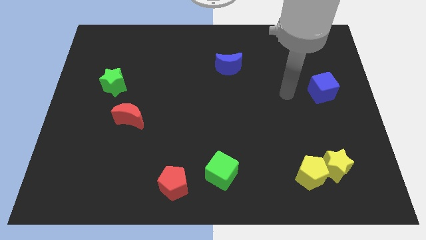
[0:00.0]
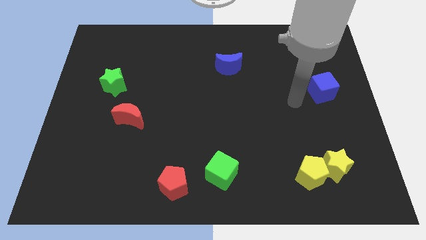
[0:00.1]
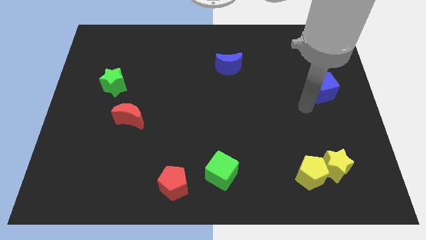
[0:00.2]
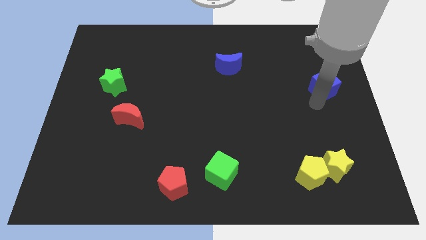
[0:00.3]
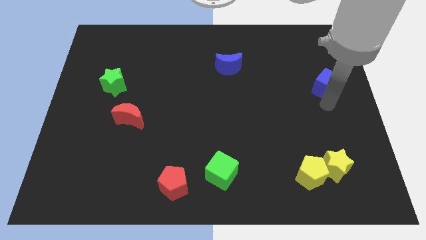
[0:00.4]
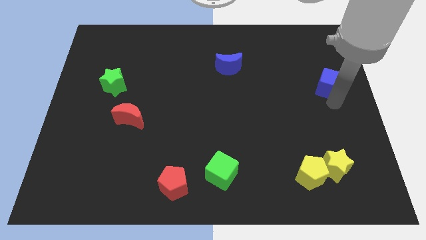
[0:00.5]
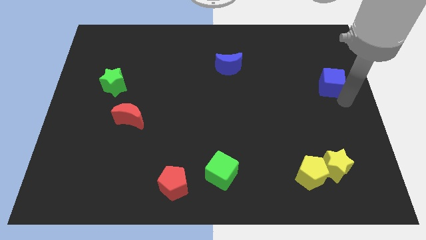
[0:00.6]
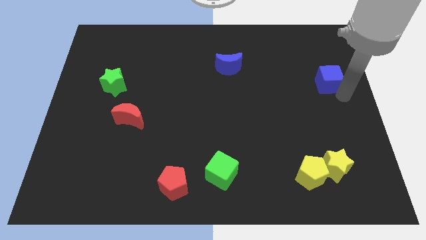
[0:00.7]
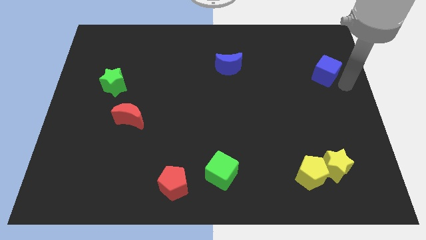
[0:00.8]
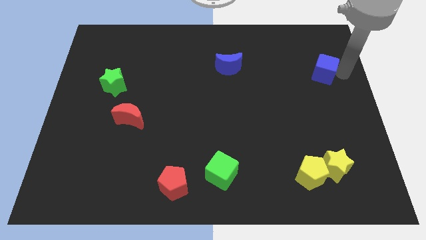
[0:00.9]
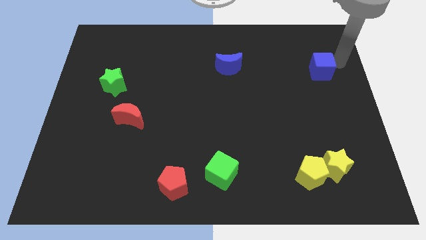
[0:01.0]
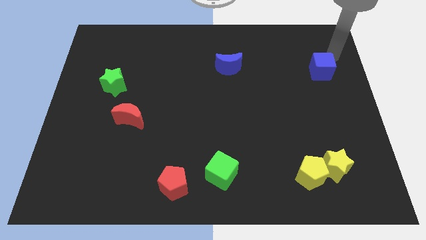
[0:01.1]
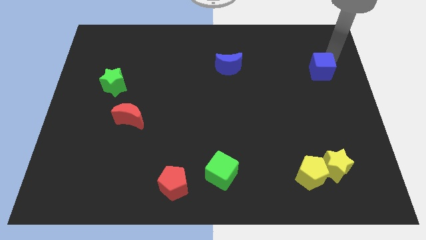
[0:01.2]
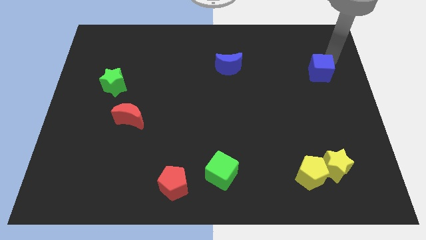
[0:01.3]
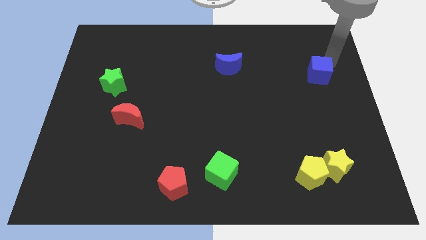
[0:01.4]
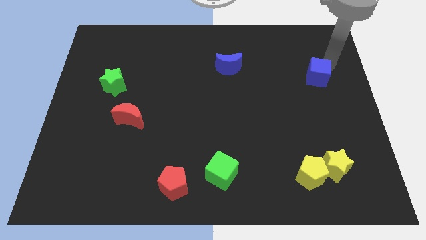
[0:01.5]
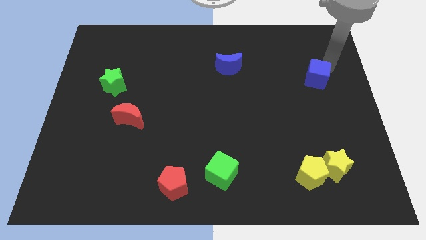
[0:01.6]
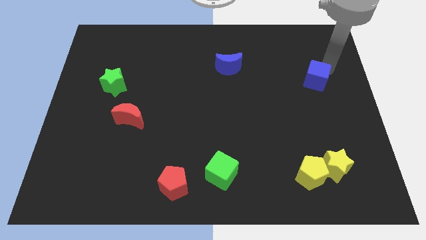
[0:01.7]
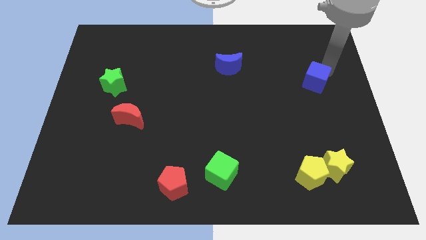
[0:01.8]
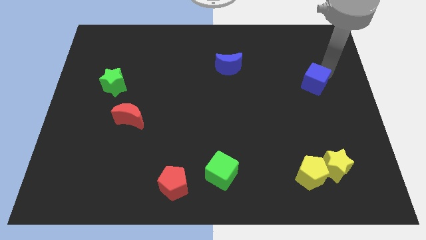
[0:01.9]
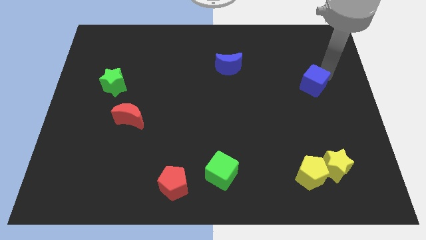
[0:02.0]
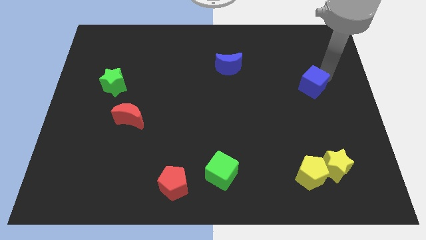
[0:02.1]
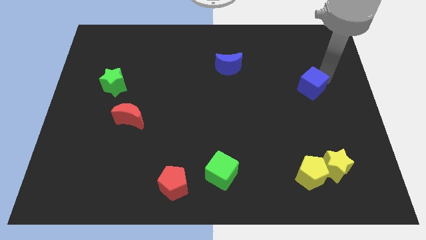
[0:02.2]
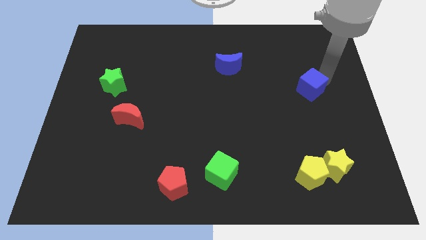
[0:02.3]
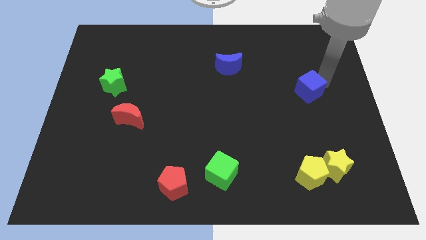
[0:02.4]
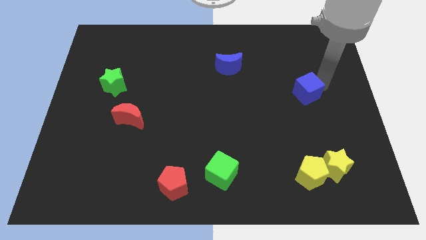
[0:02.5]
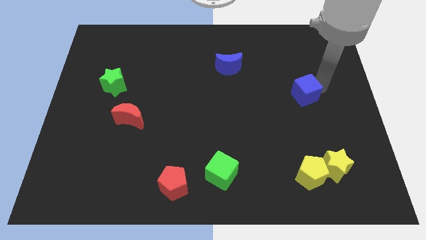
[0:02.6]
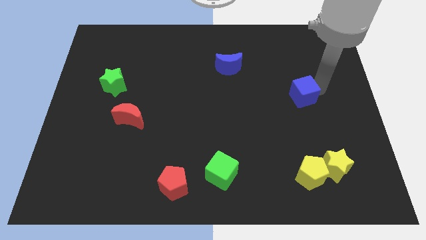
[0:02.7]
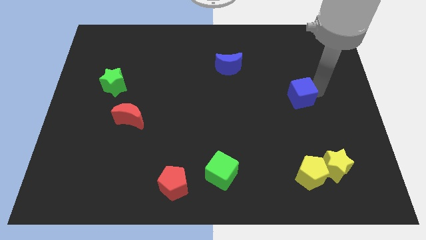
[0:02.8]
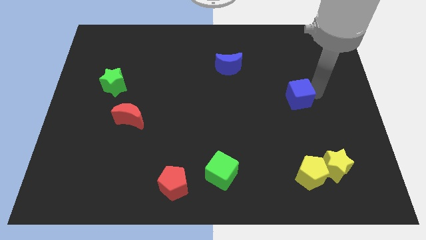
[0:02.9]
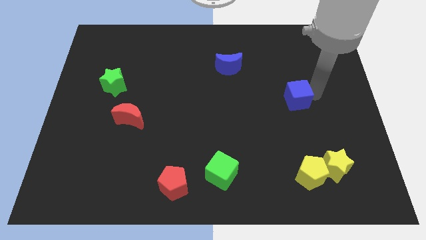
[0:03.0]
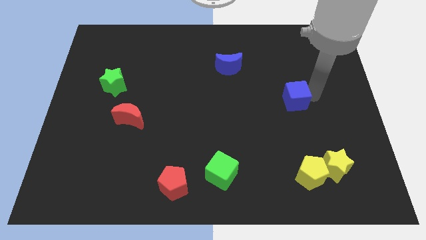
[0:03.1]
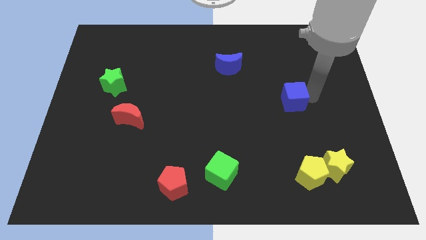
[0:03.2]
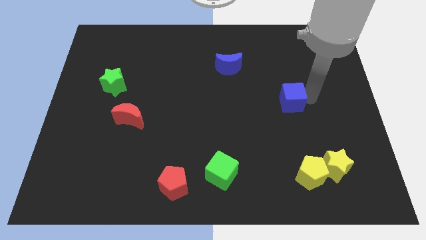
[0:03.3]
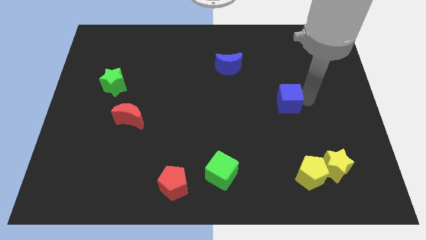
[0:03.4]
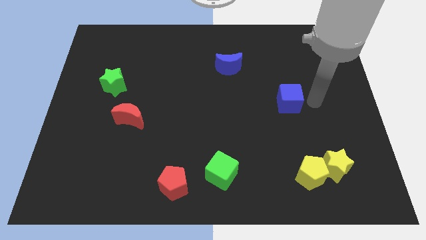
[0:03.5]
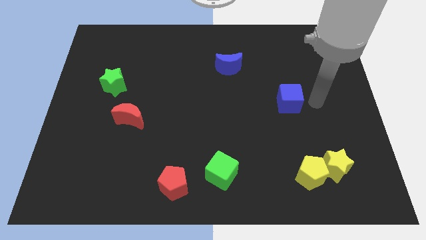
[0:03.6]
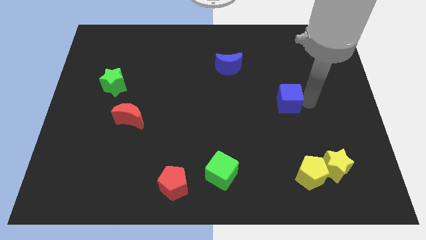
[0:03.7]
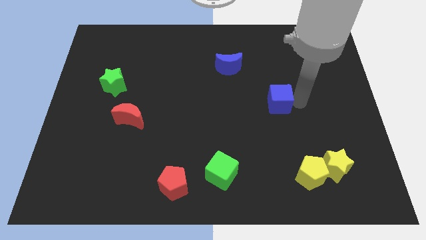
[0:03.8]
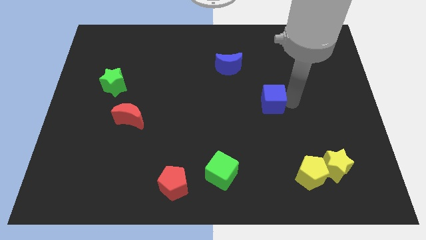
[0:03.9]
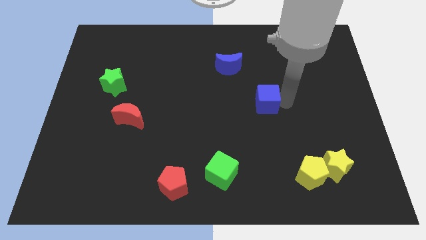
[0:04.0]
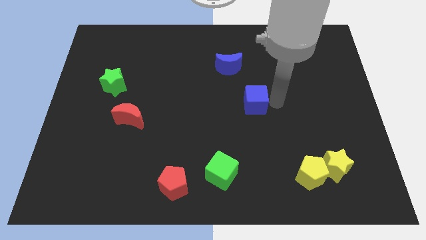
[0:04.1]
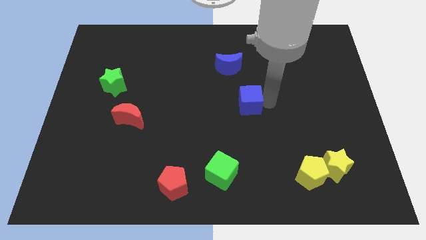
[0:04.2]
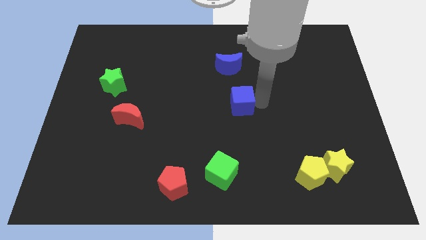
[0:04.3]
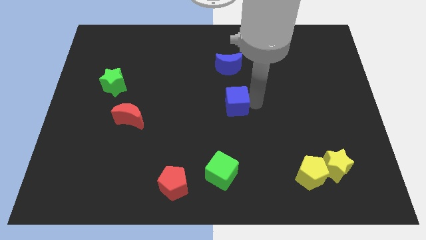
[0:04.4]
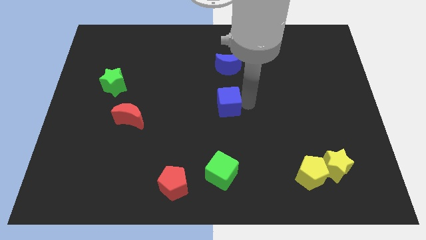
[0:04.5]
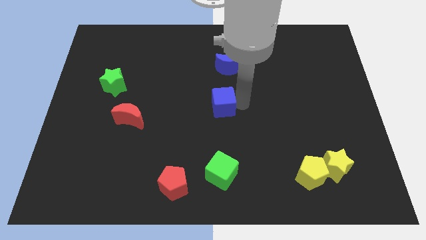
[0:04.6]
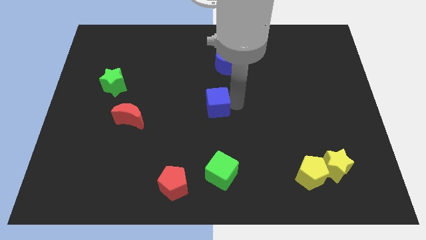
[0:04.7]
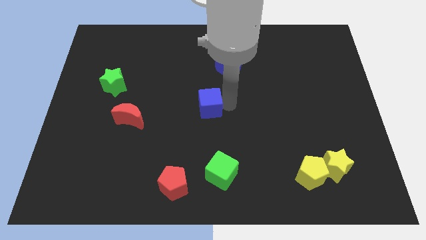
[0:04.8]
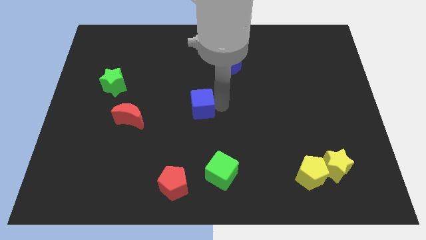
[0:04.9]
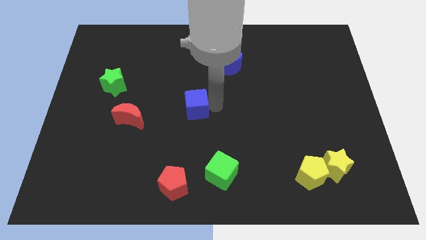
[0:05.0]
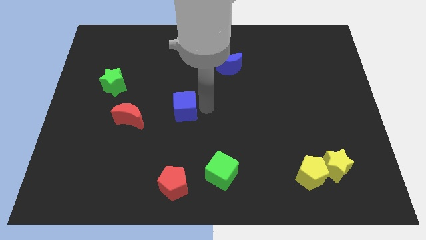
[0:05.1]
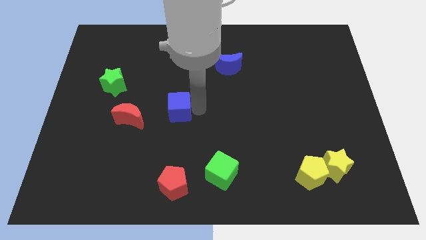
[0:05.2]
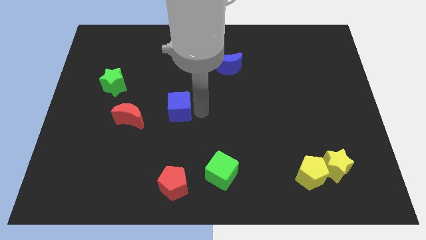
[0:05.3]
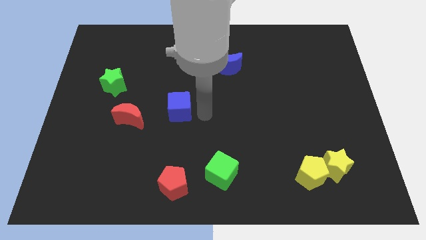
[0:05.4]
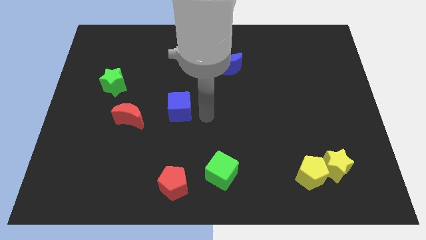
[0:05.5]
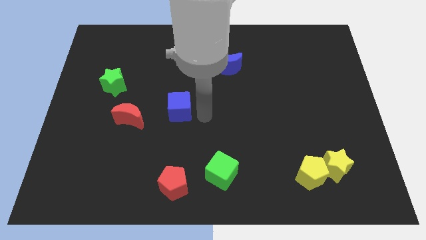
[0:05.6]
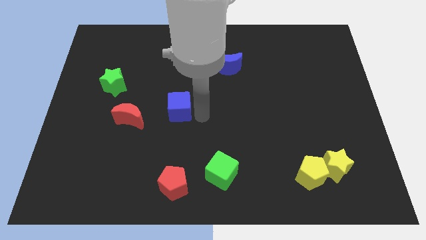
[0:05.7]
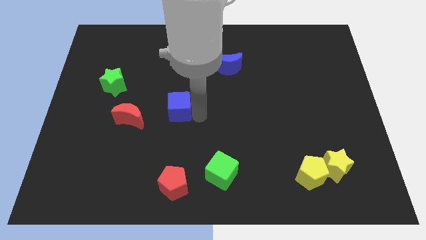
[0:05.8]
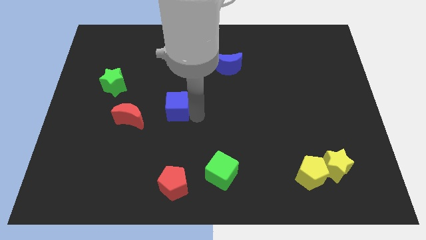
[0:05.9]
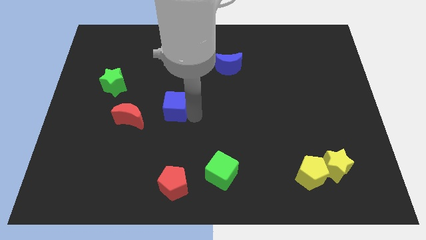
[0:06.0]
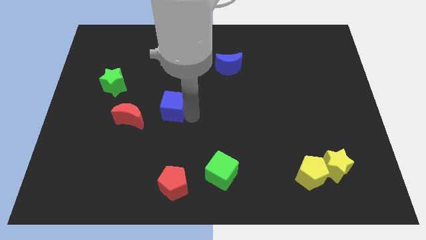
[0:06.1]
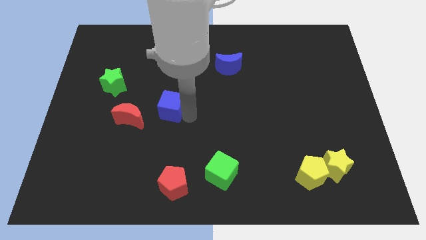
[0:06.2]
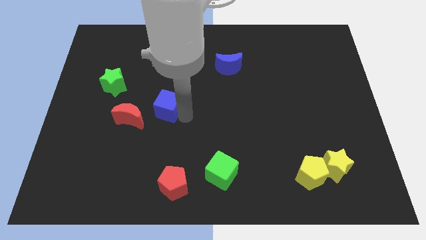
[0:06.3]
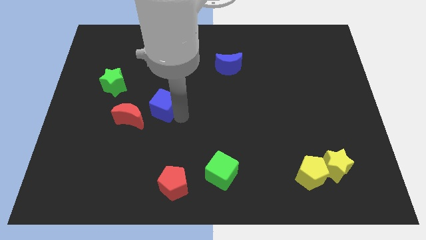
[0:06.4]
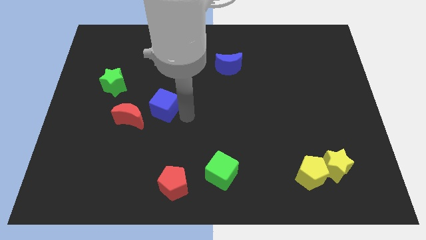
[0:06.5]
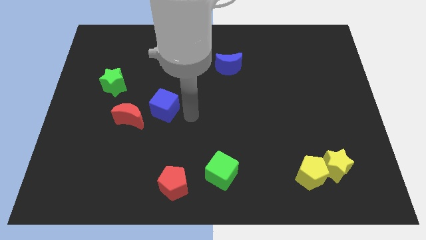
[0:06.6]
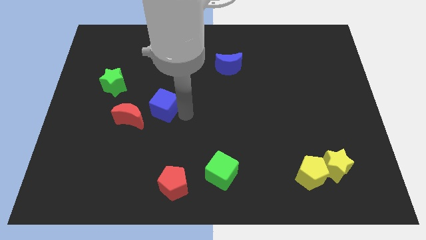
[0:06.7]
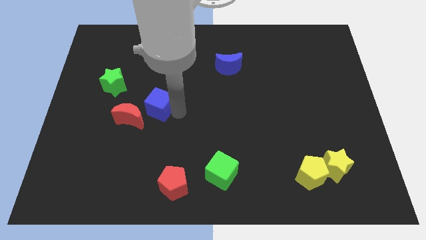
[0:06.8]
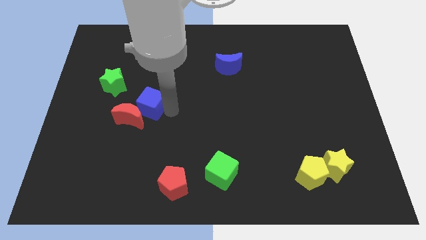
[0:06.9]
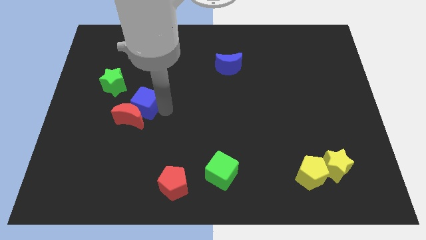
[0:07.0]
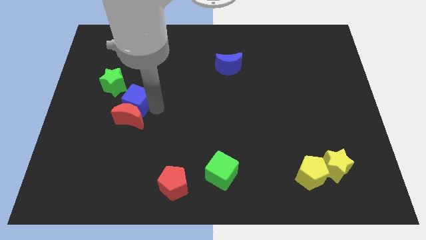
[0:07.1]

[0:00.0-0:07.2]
put the blue cube to the top left of the red moon
